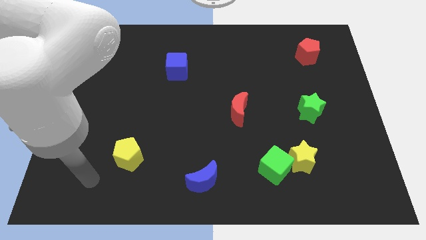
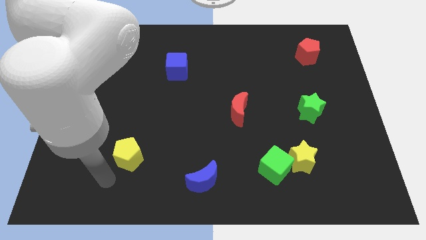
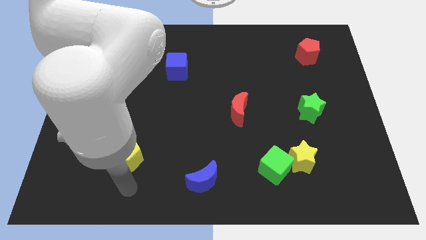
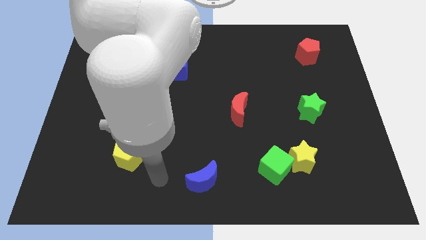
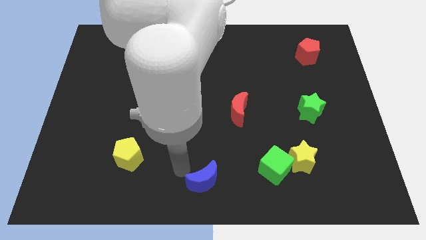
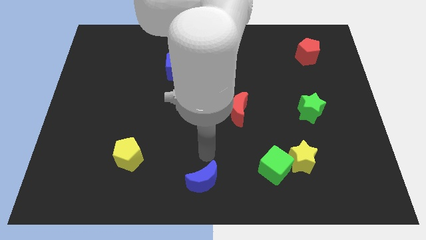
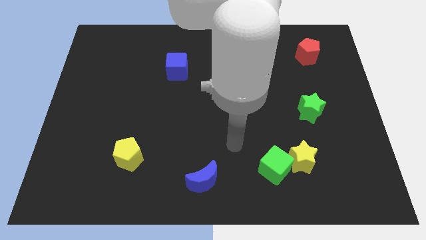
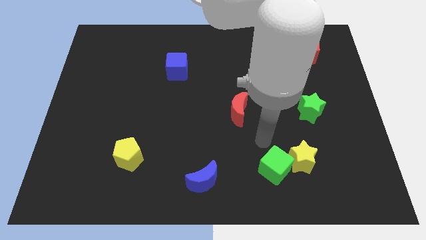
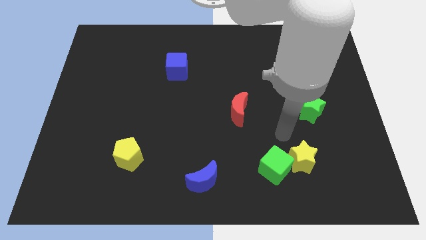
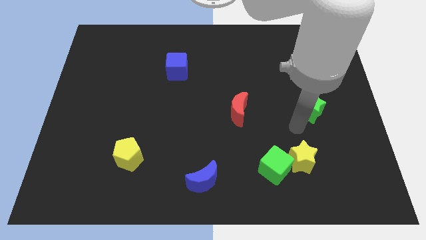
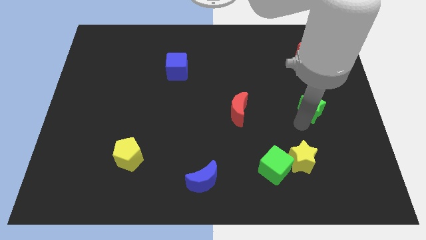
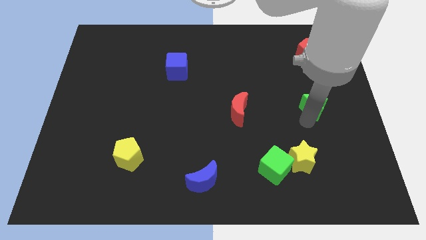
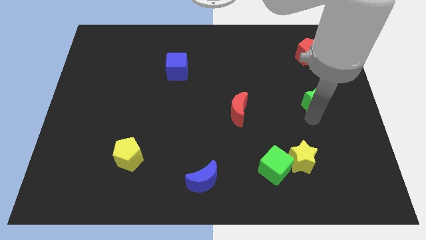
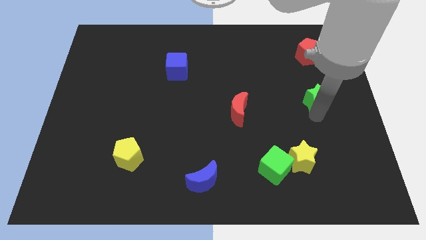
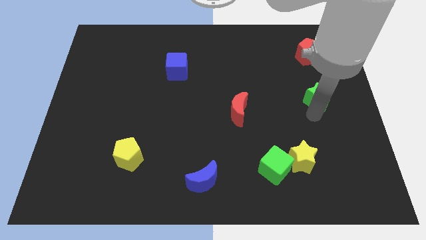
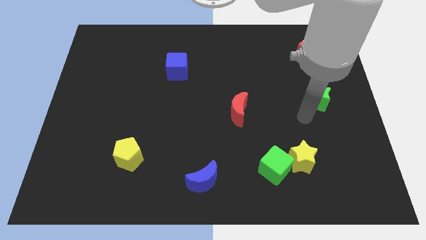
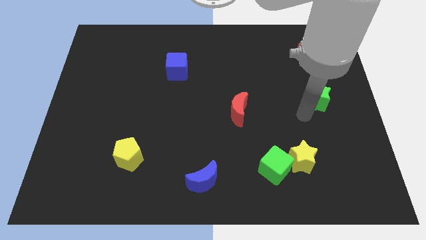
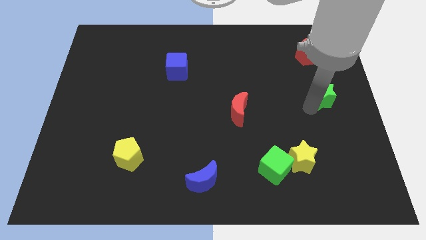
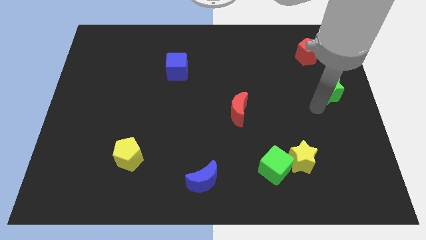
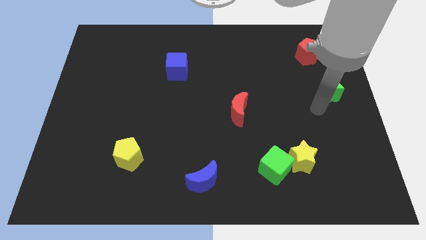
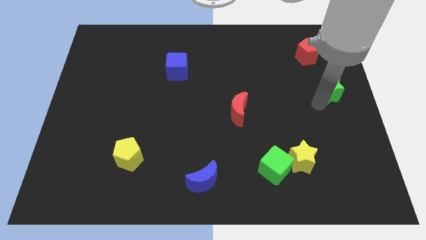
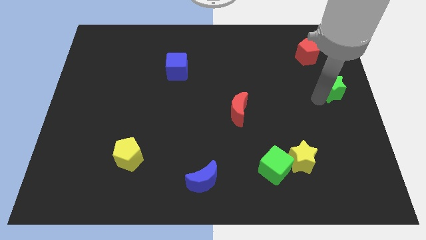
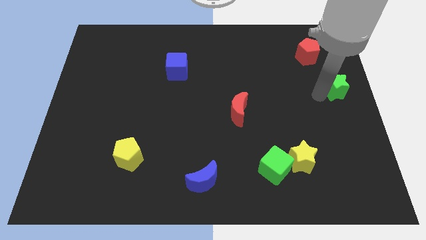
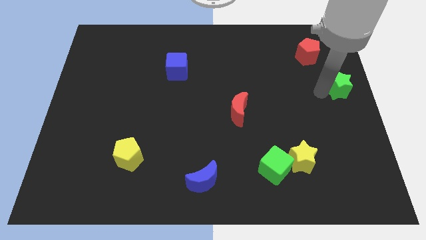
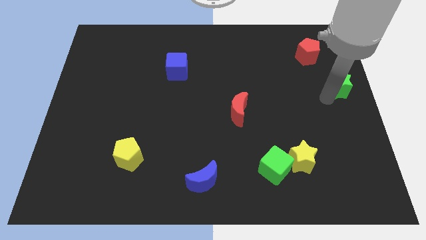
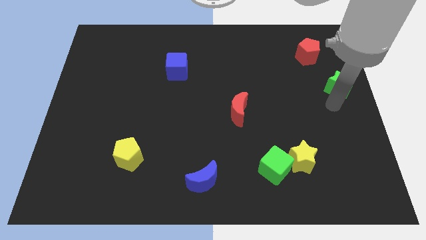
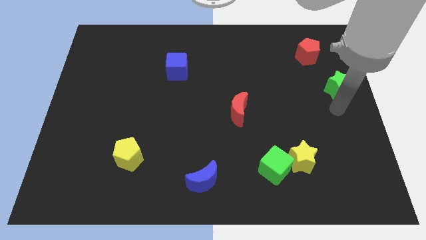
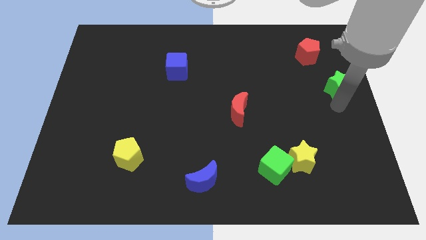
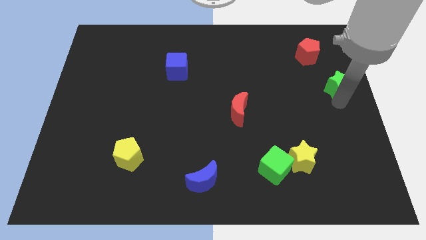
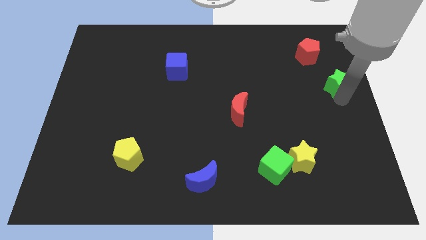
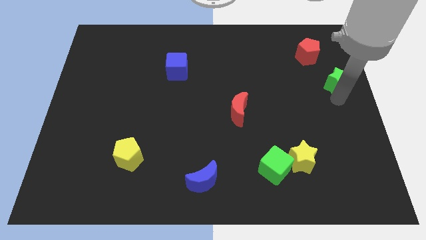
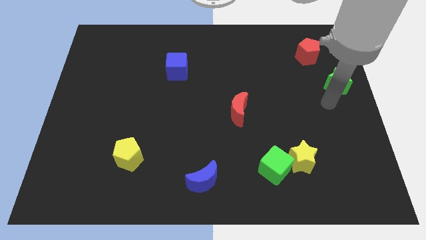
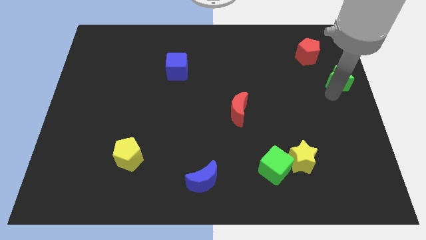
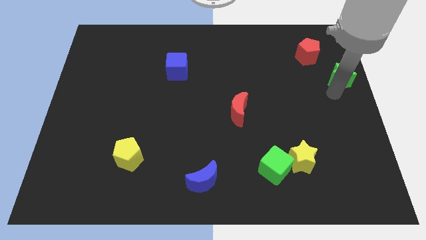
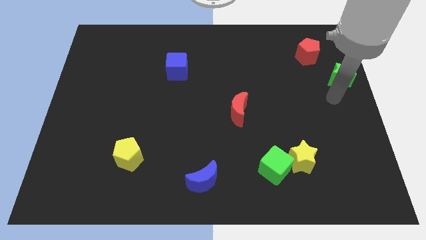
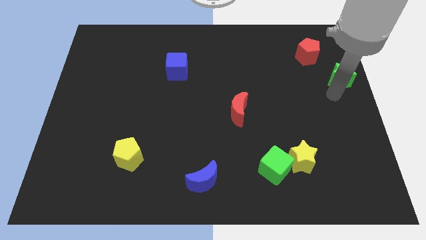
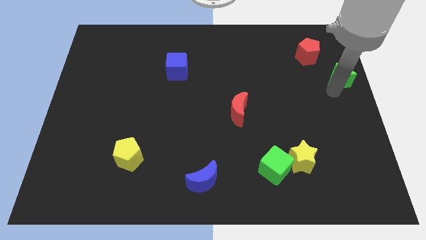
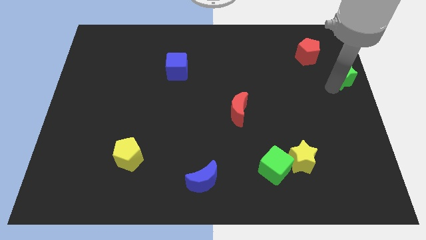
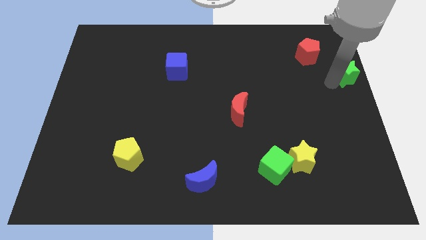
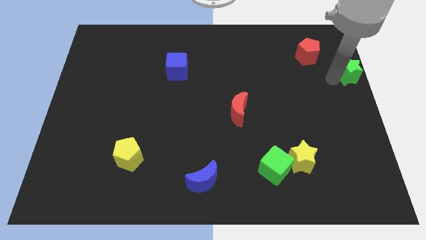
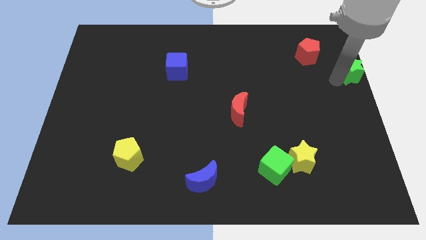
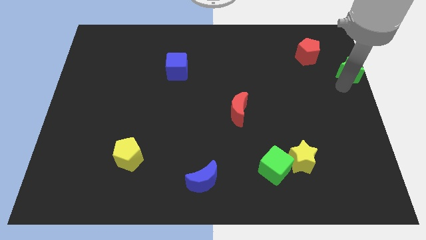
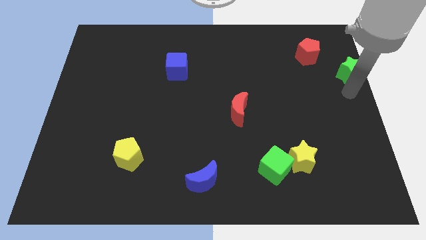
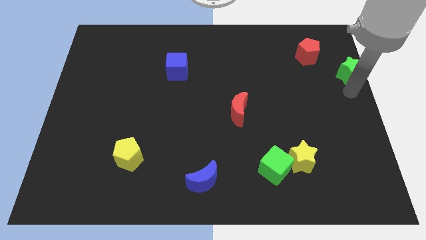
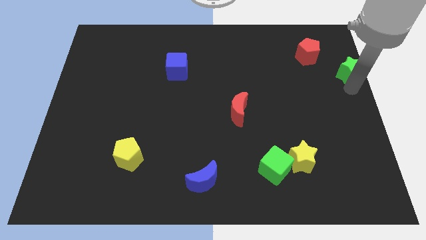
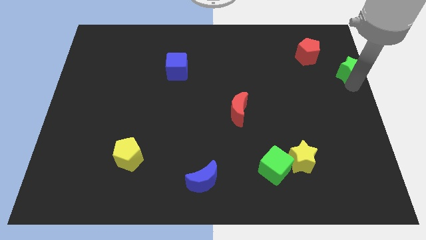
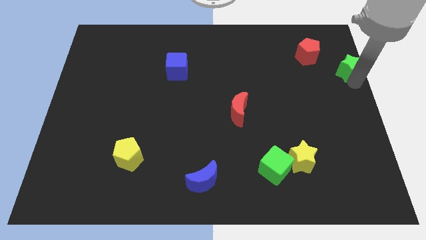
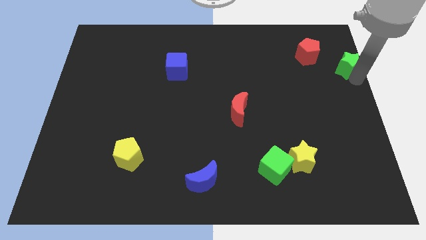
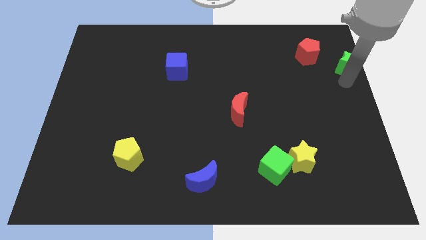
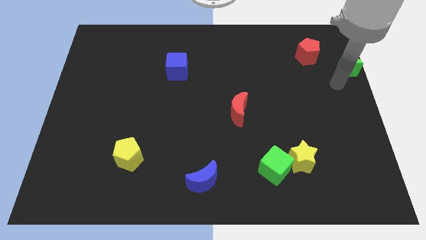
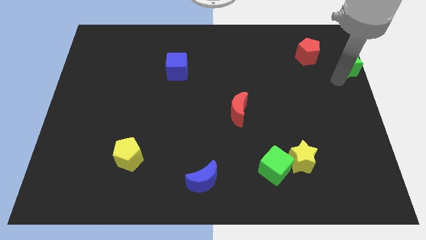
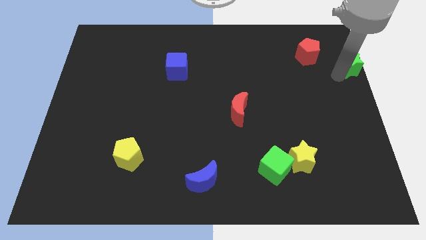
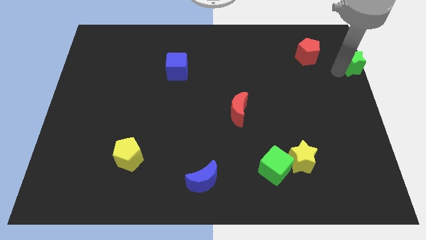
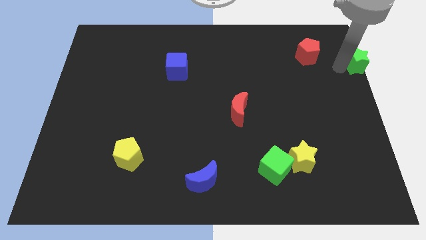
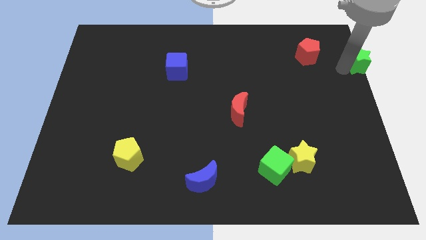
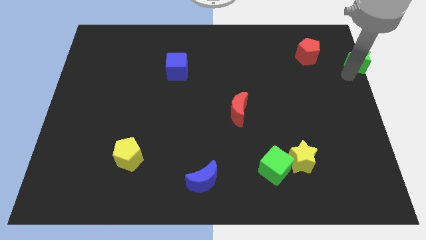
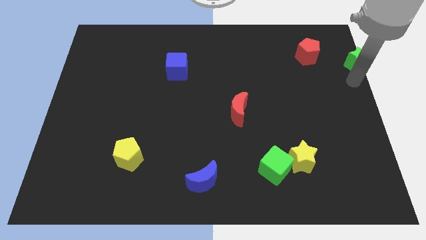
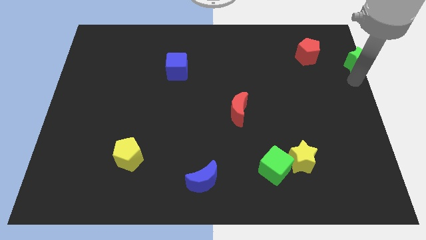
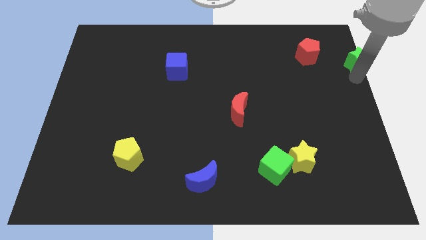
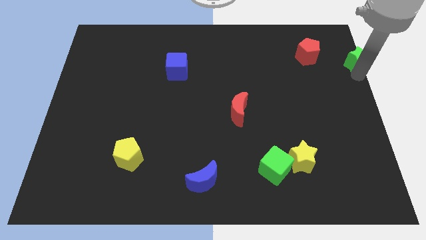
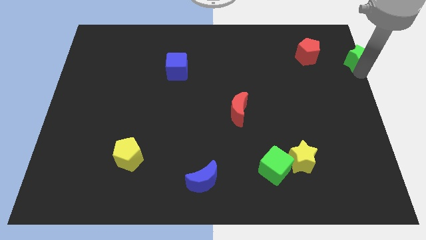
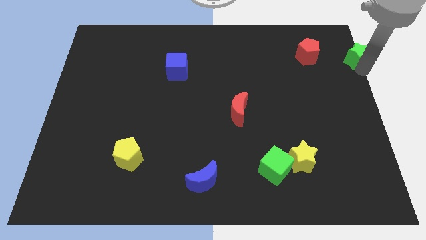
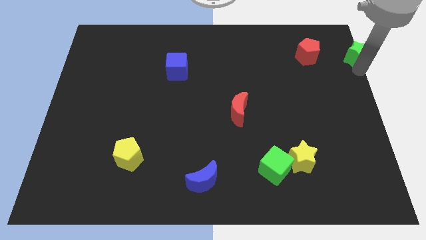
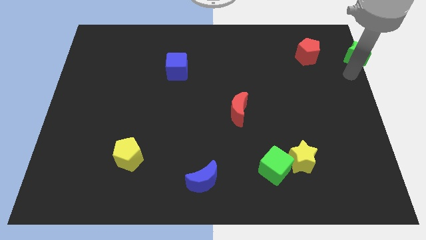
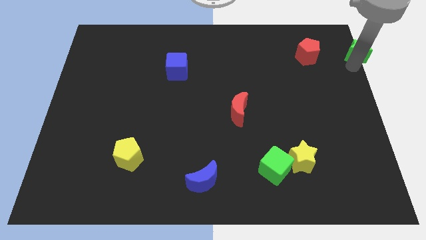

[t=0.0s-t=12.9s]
push the green star to the top right

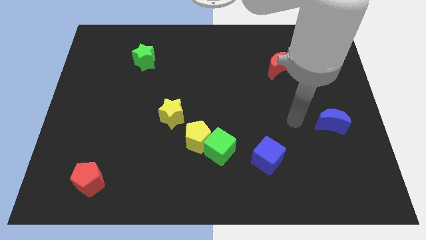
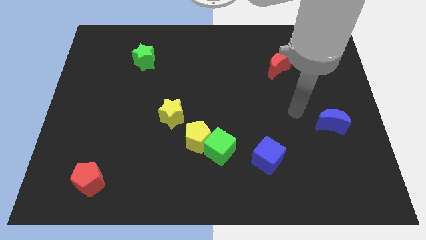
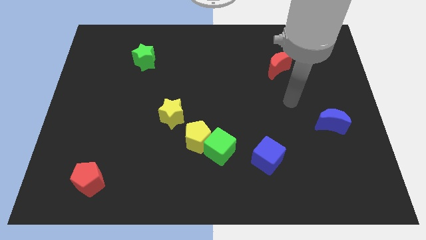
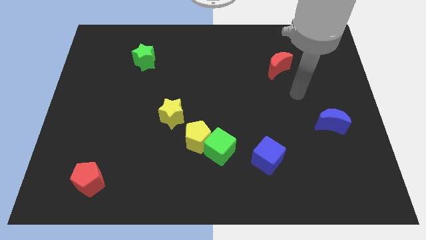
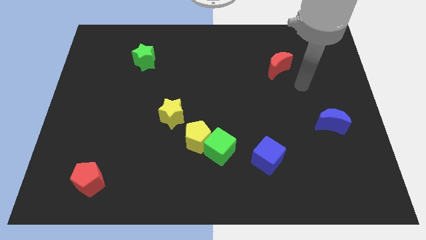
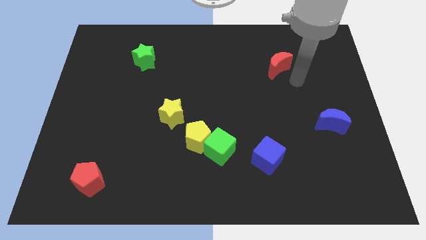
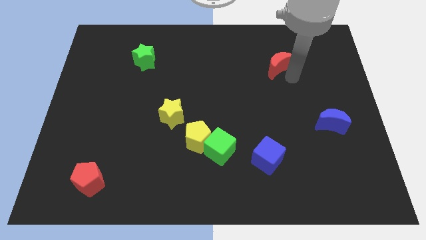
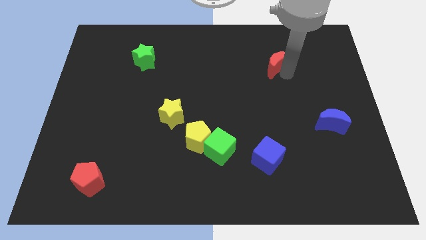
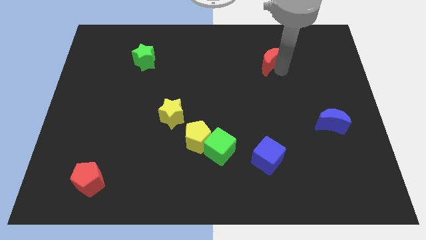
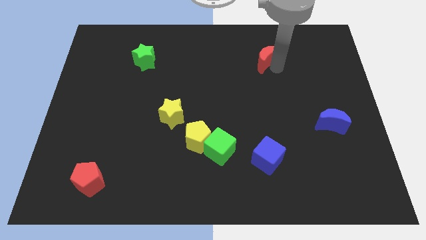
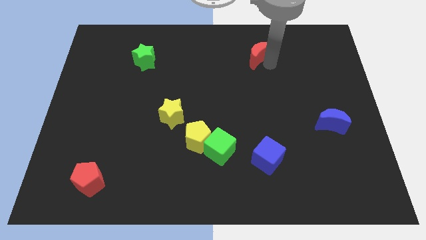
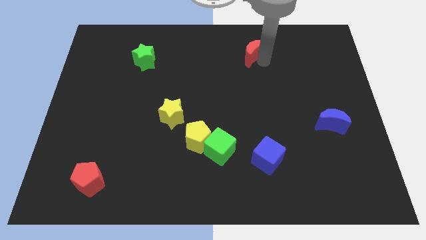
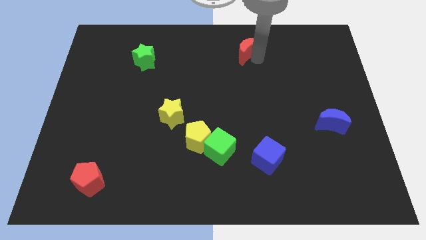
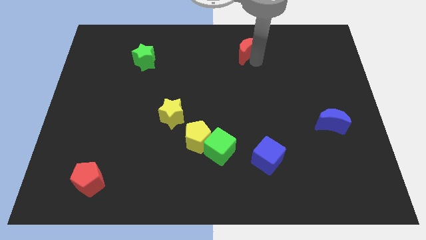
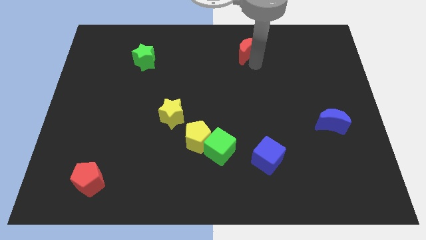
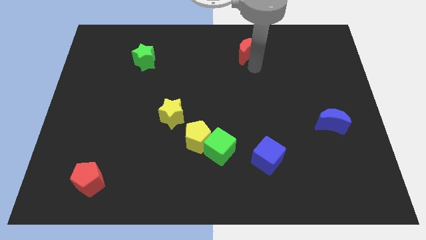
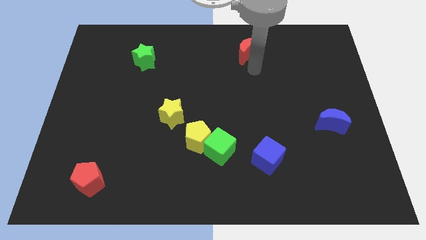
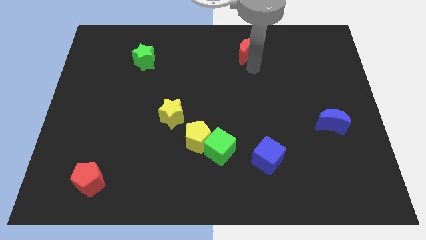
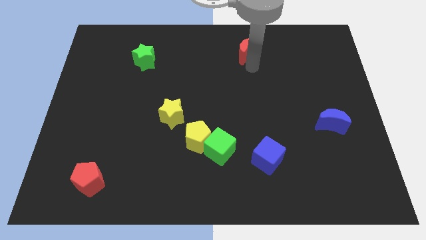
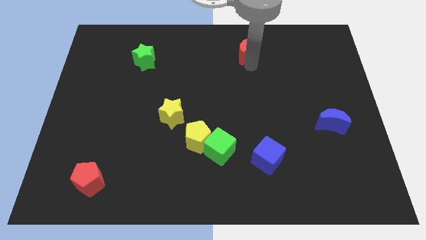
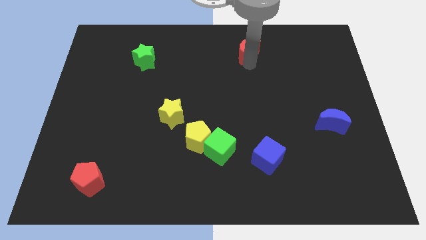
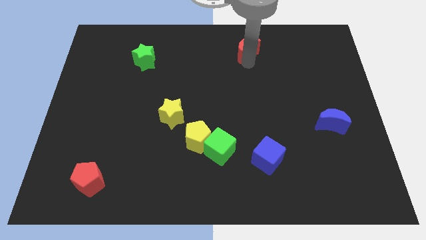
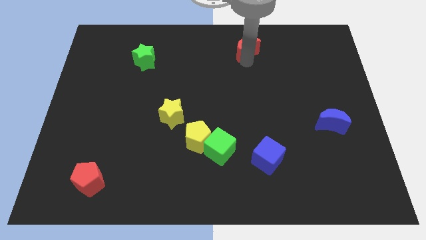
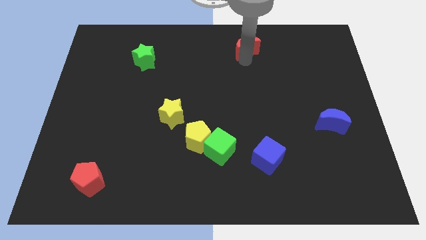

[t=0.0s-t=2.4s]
put the red moon to the towards your base
